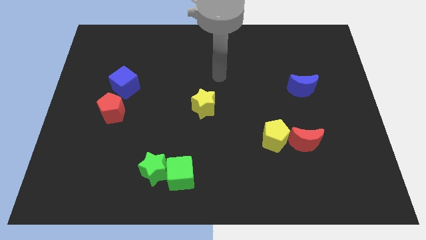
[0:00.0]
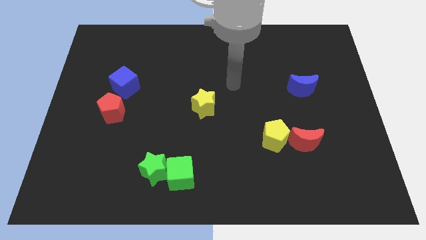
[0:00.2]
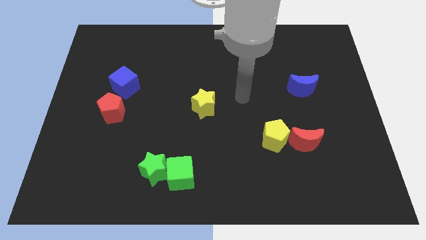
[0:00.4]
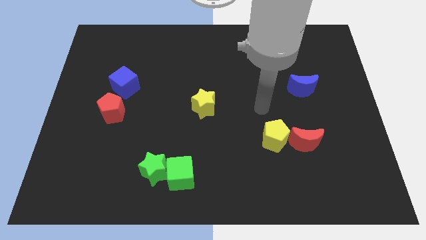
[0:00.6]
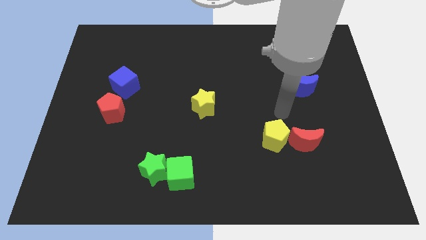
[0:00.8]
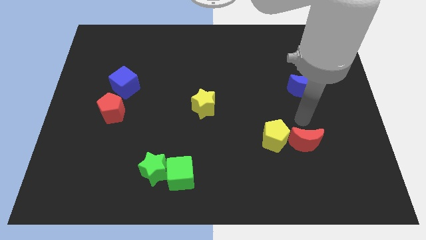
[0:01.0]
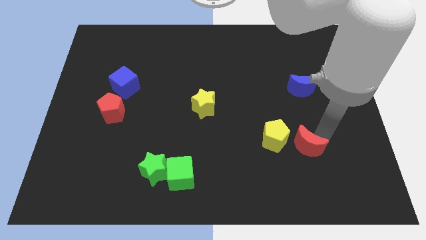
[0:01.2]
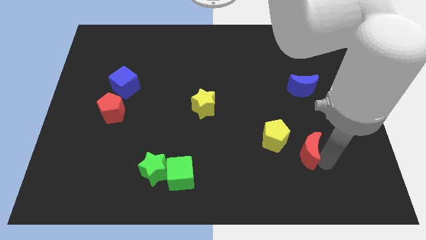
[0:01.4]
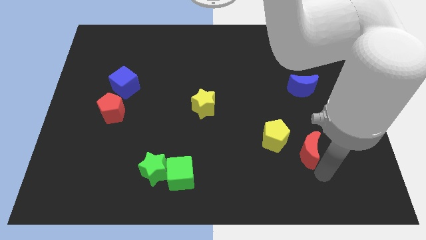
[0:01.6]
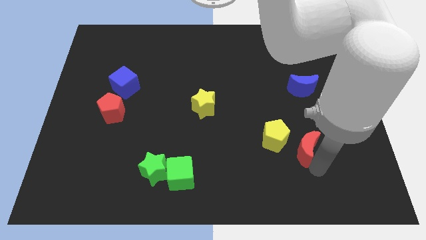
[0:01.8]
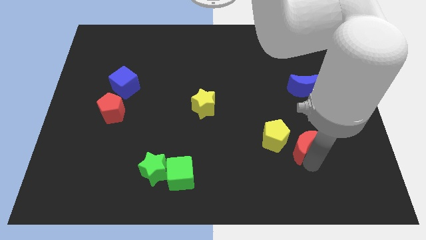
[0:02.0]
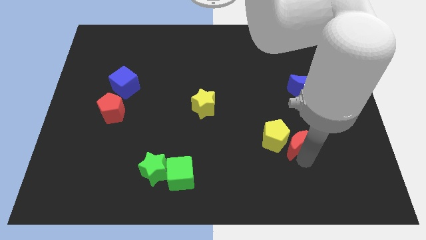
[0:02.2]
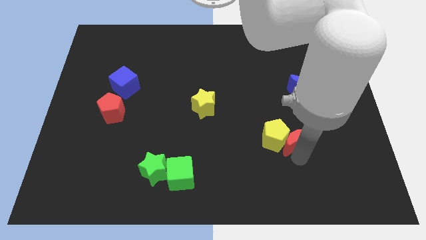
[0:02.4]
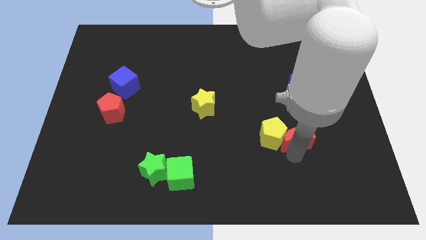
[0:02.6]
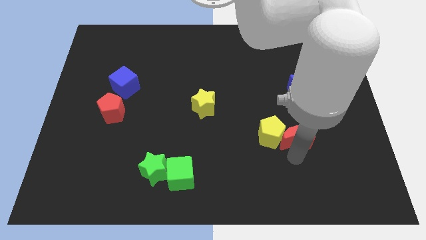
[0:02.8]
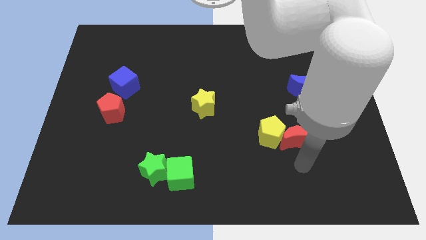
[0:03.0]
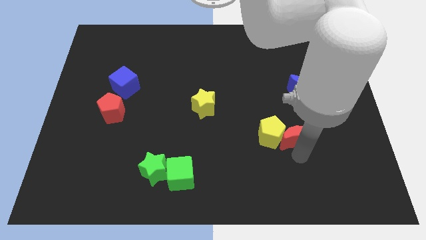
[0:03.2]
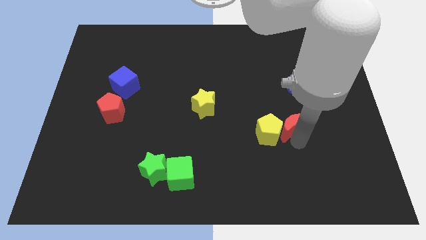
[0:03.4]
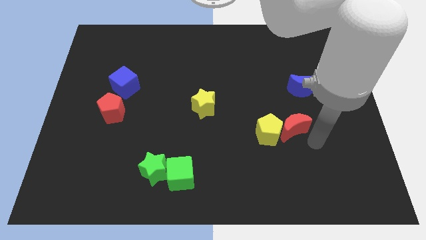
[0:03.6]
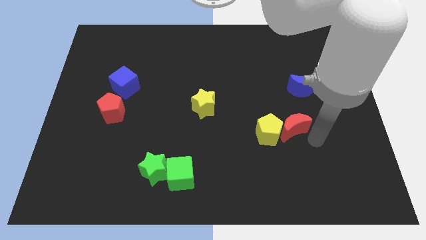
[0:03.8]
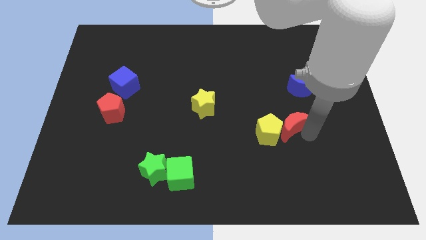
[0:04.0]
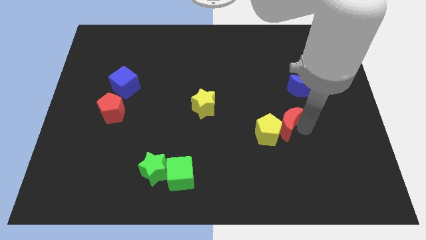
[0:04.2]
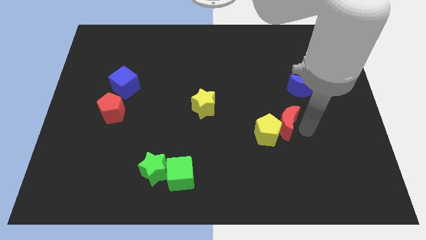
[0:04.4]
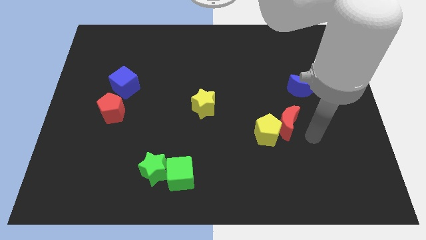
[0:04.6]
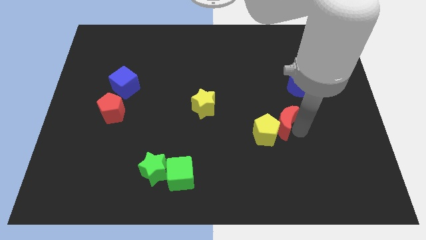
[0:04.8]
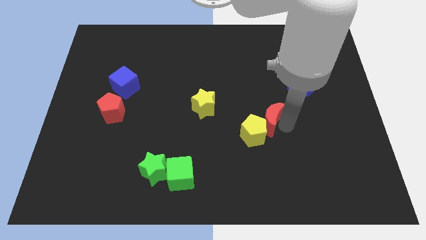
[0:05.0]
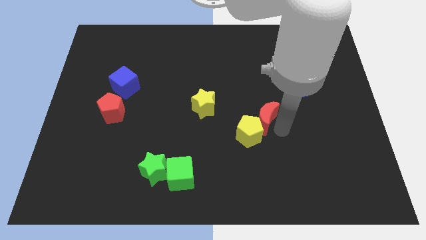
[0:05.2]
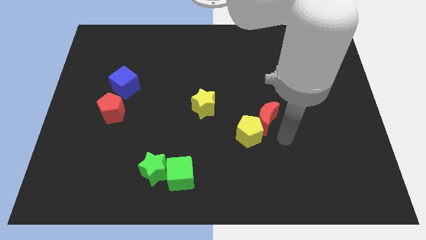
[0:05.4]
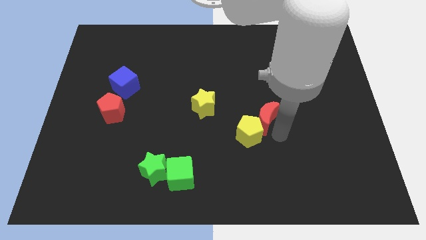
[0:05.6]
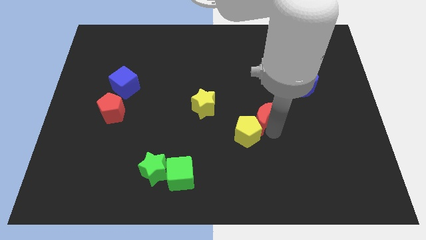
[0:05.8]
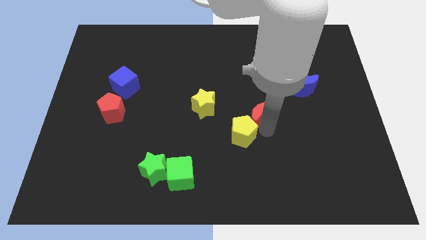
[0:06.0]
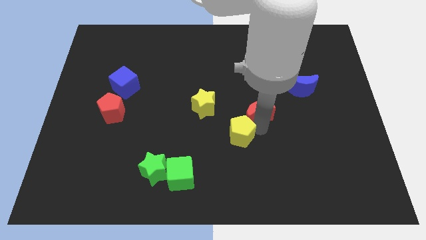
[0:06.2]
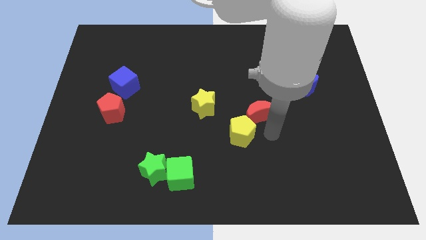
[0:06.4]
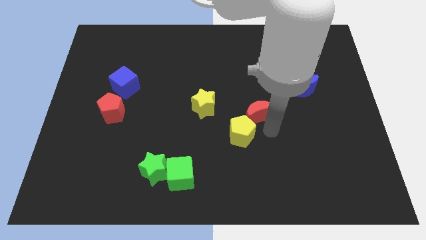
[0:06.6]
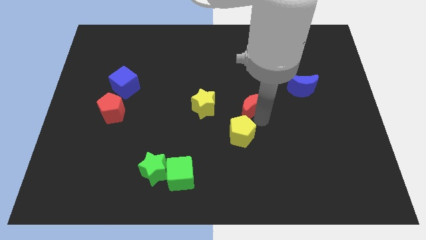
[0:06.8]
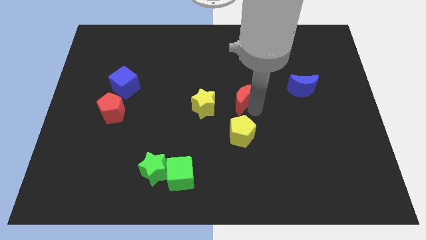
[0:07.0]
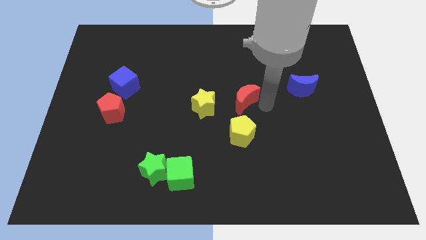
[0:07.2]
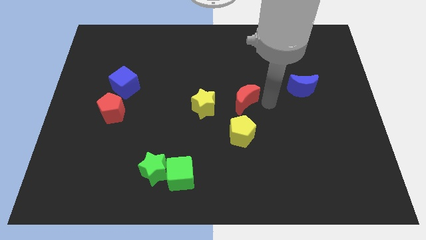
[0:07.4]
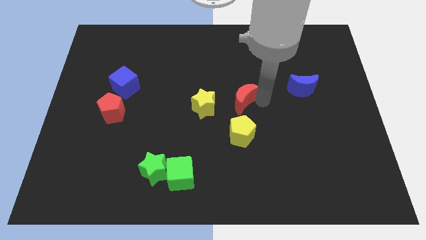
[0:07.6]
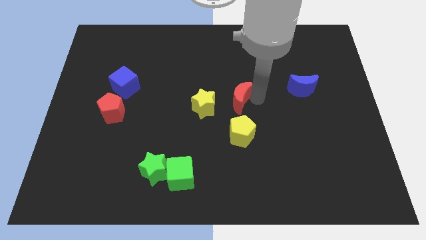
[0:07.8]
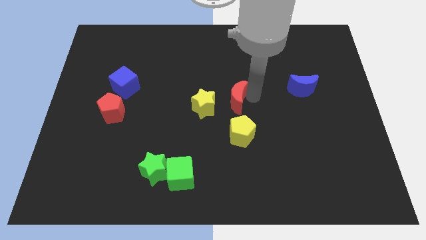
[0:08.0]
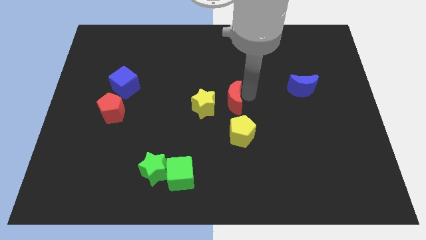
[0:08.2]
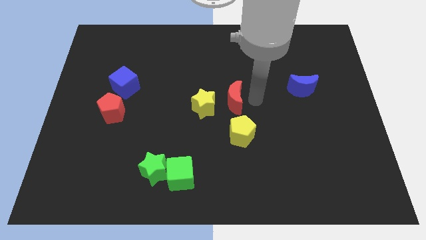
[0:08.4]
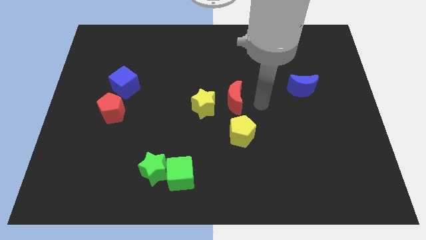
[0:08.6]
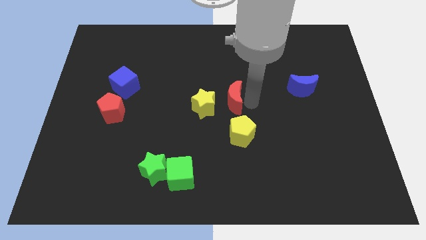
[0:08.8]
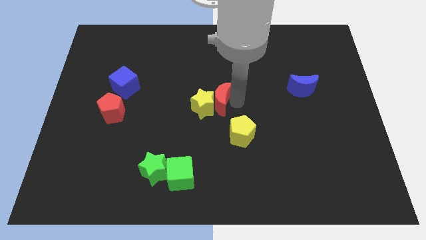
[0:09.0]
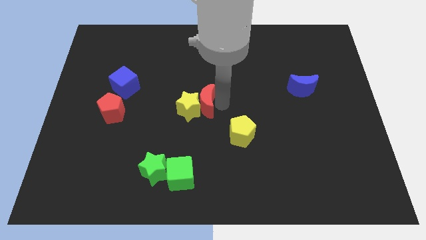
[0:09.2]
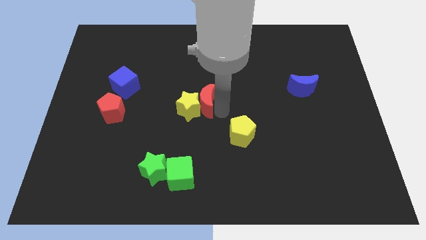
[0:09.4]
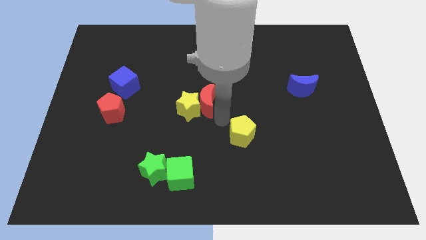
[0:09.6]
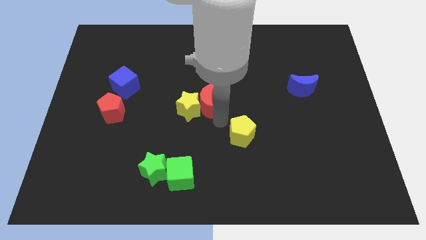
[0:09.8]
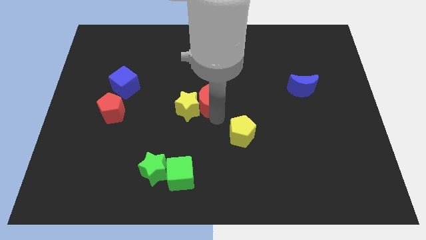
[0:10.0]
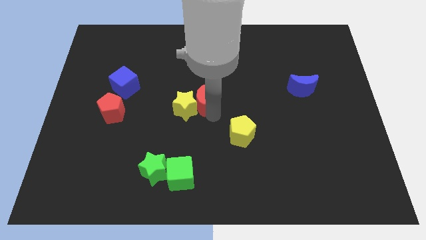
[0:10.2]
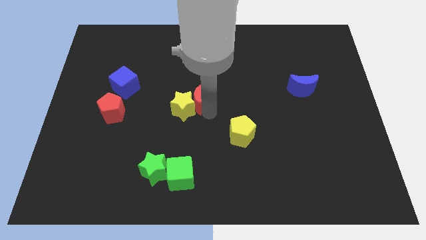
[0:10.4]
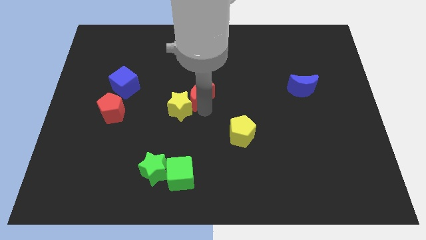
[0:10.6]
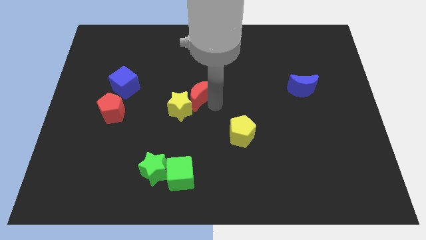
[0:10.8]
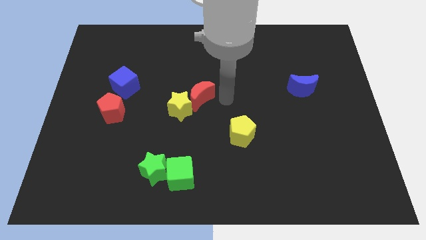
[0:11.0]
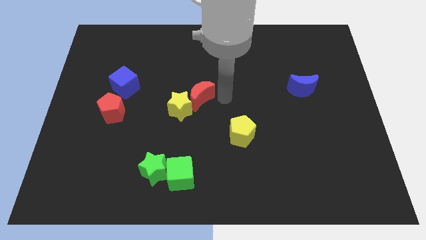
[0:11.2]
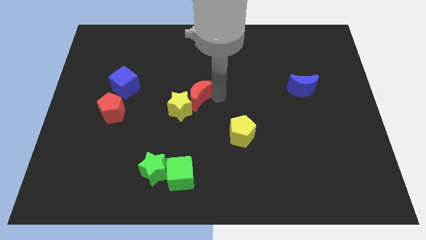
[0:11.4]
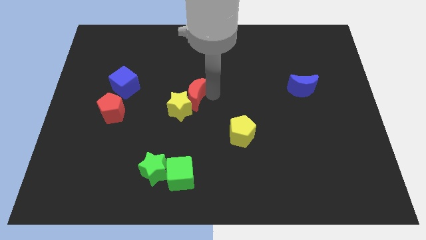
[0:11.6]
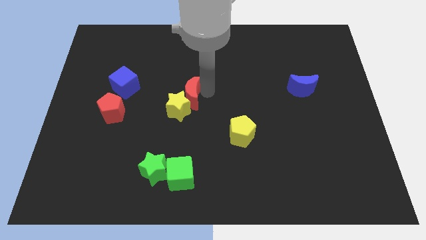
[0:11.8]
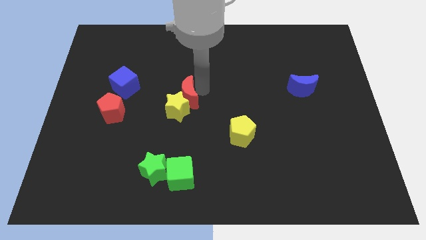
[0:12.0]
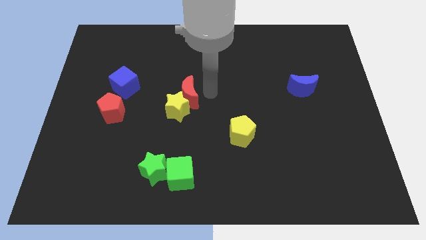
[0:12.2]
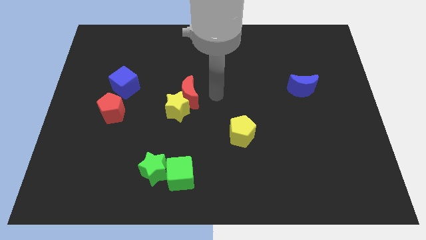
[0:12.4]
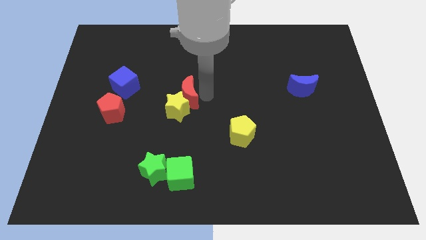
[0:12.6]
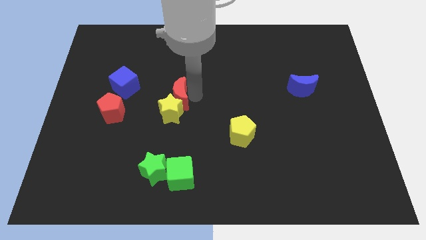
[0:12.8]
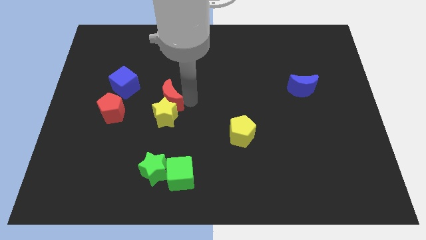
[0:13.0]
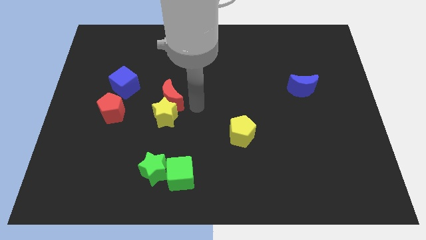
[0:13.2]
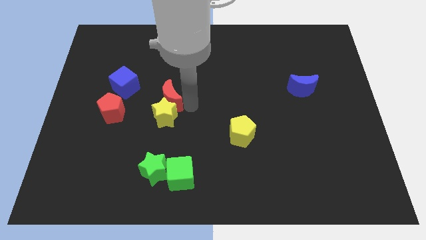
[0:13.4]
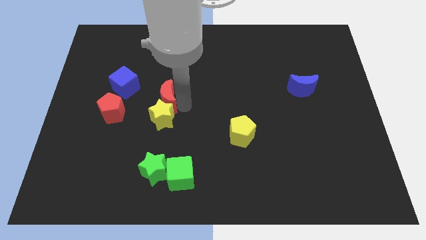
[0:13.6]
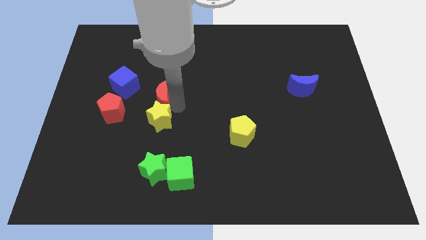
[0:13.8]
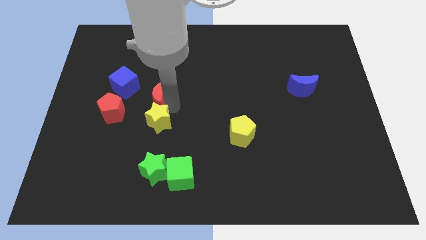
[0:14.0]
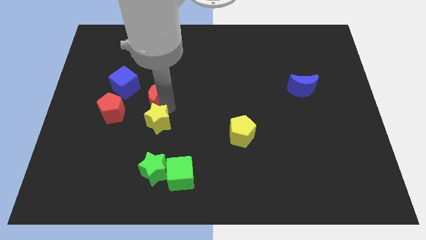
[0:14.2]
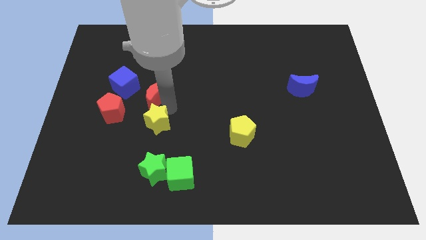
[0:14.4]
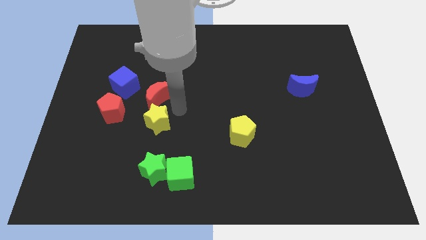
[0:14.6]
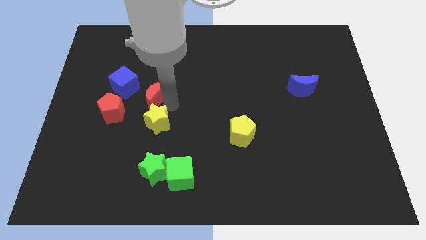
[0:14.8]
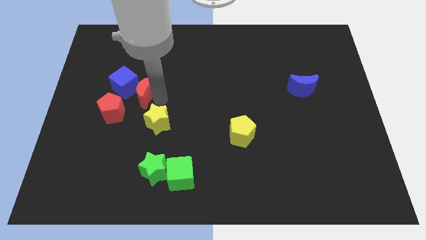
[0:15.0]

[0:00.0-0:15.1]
put the red moon to the blue cube

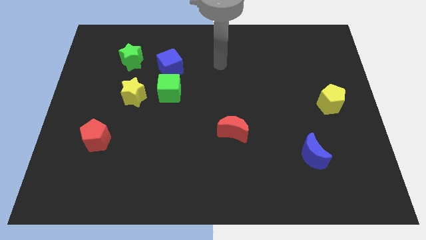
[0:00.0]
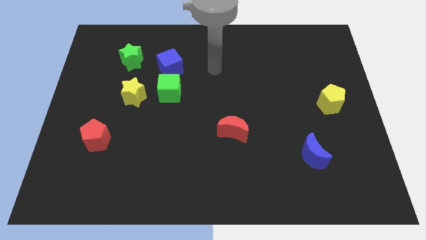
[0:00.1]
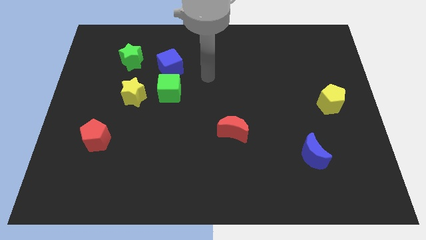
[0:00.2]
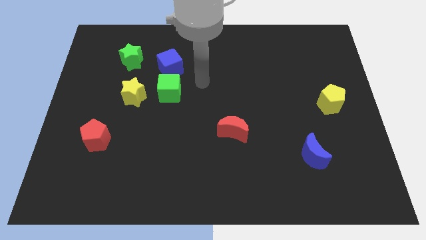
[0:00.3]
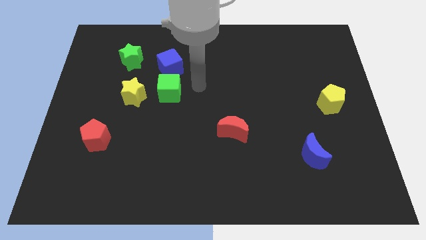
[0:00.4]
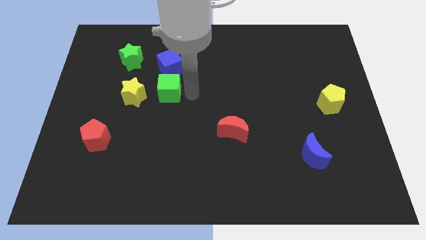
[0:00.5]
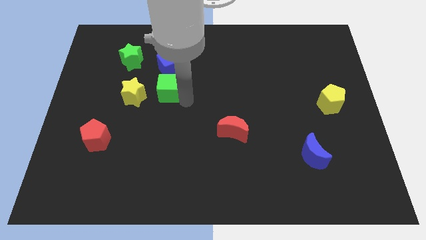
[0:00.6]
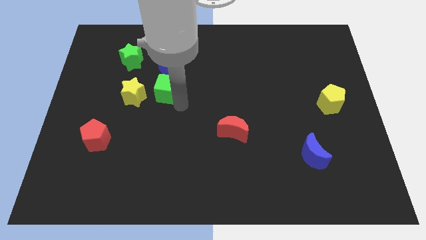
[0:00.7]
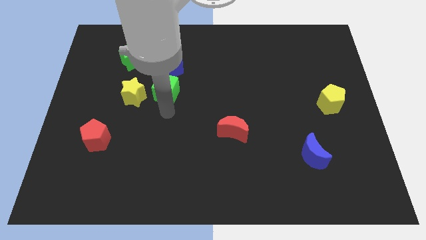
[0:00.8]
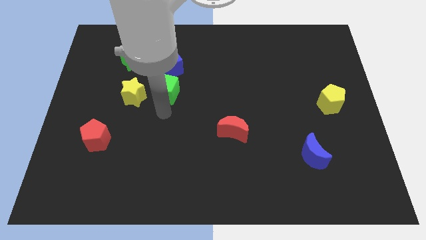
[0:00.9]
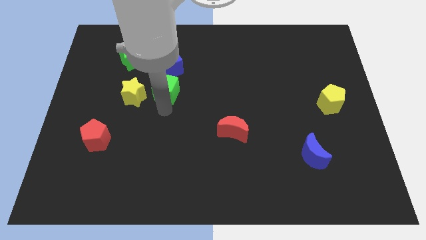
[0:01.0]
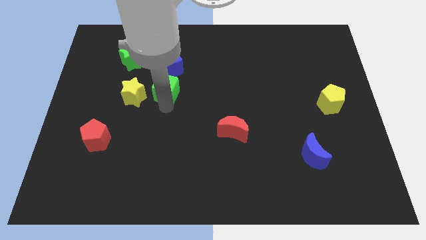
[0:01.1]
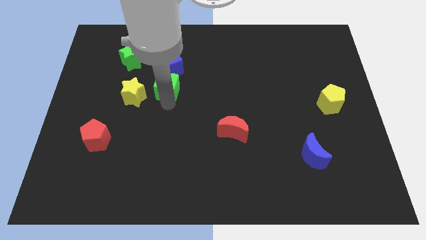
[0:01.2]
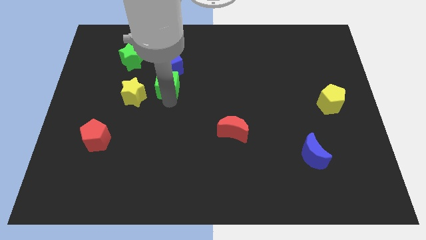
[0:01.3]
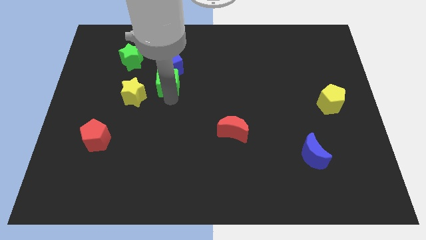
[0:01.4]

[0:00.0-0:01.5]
slide the green cube to the blue cube
